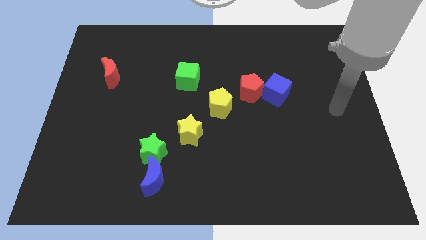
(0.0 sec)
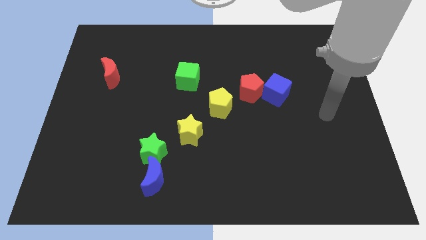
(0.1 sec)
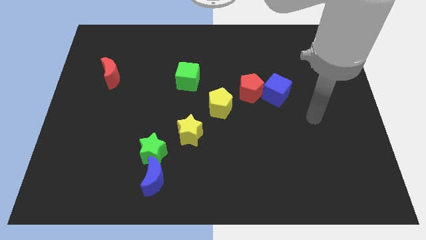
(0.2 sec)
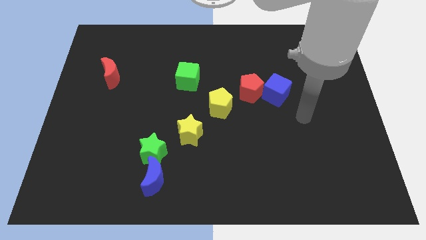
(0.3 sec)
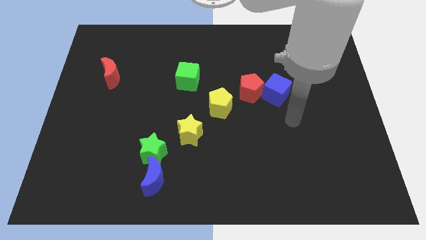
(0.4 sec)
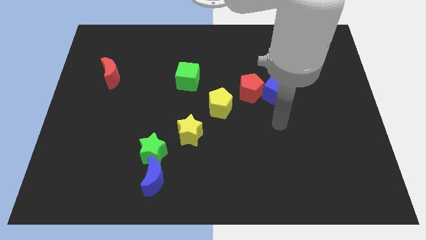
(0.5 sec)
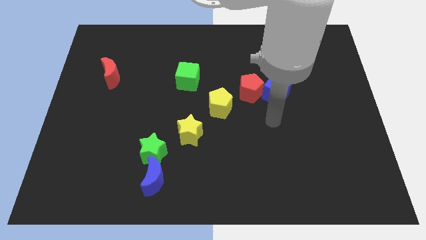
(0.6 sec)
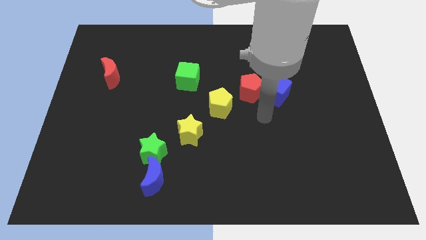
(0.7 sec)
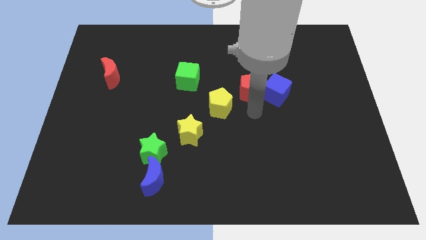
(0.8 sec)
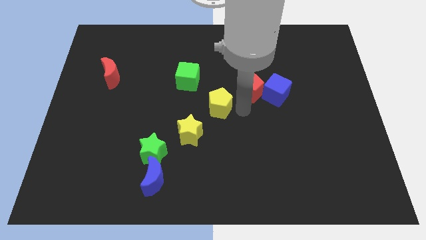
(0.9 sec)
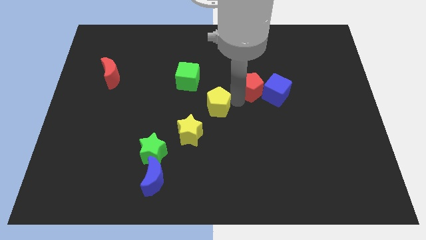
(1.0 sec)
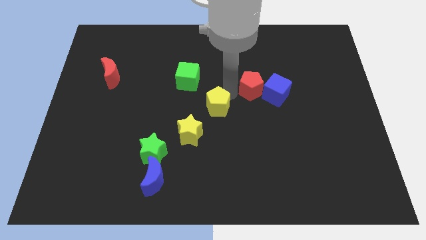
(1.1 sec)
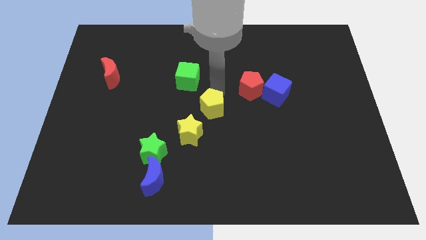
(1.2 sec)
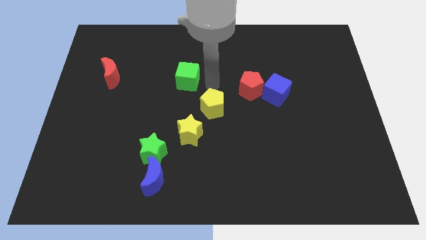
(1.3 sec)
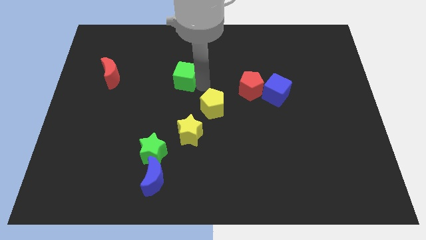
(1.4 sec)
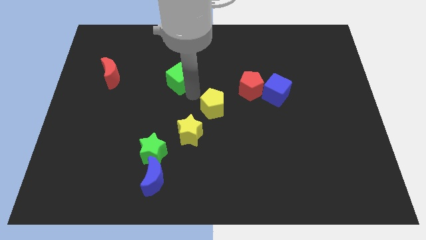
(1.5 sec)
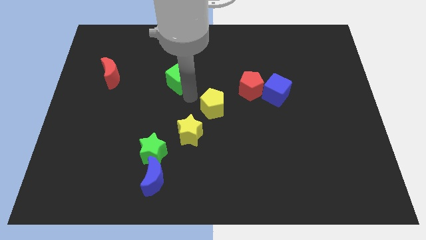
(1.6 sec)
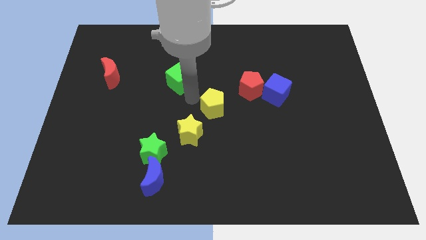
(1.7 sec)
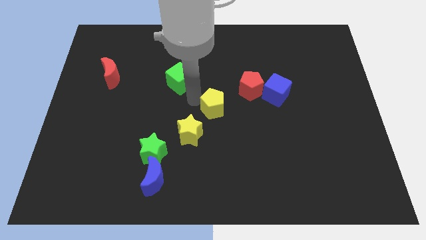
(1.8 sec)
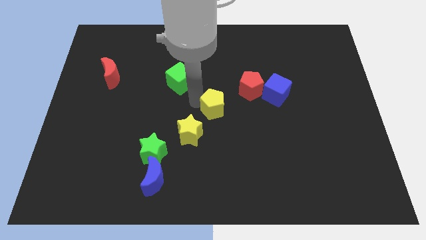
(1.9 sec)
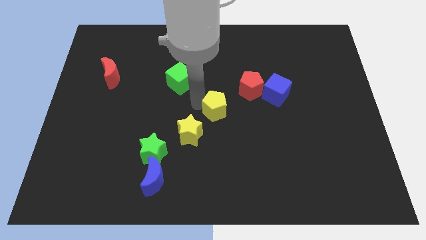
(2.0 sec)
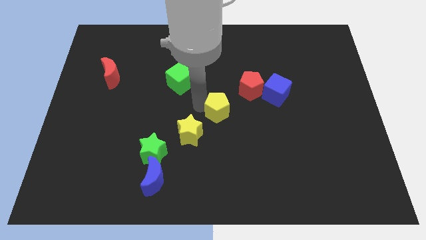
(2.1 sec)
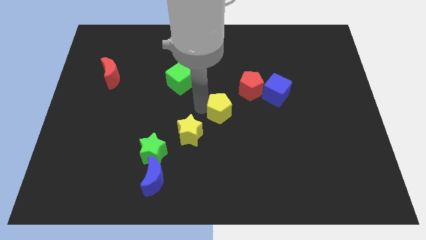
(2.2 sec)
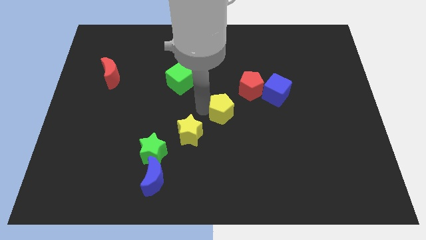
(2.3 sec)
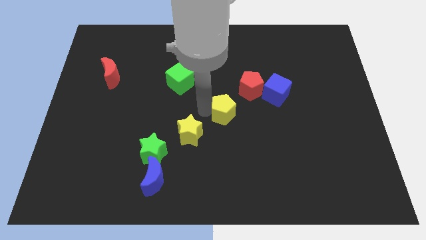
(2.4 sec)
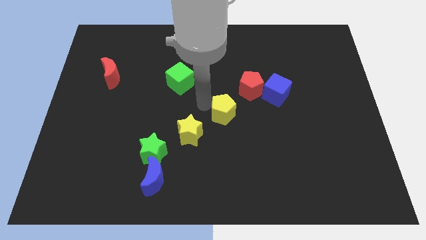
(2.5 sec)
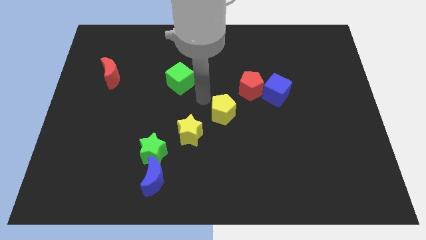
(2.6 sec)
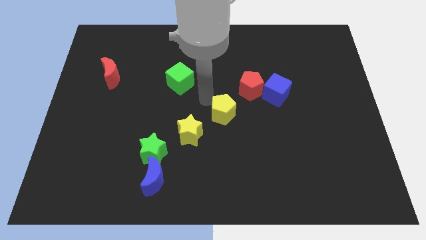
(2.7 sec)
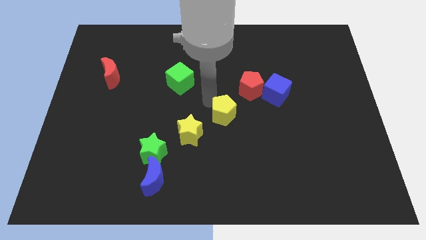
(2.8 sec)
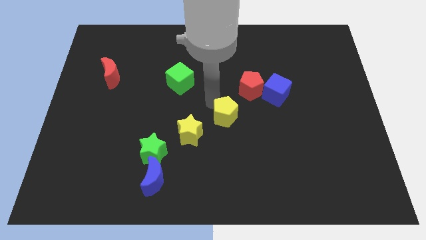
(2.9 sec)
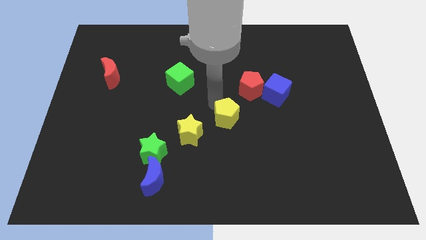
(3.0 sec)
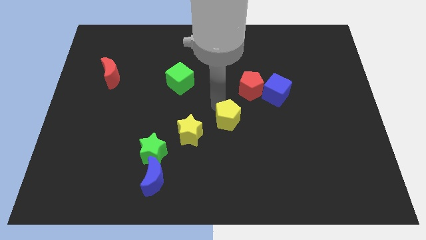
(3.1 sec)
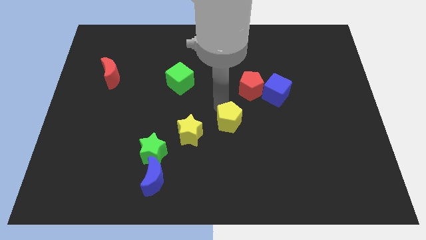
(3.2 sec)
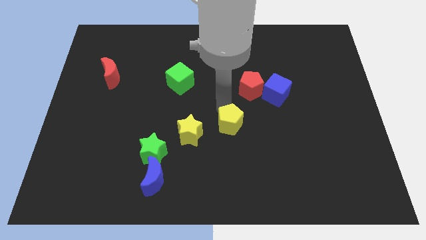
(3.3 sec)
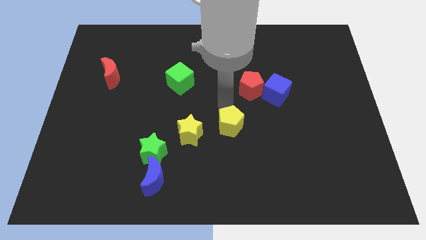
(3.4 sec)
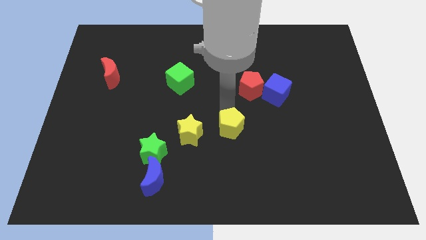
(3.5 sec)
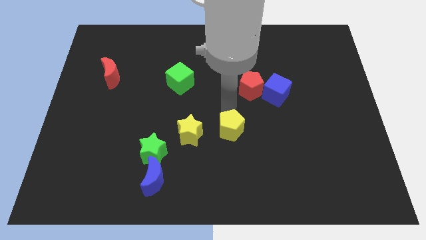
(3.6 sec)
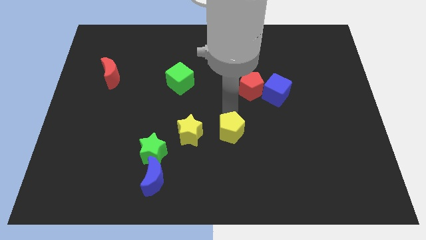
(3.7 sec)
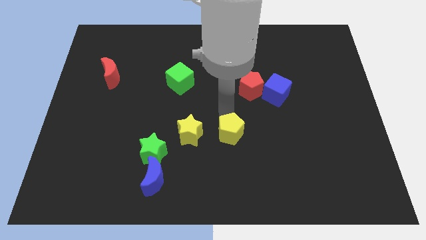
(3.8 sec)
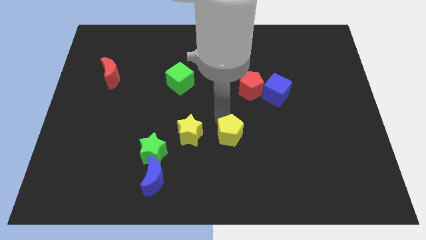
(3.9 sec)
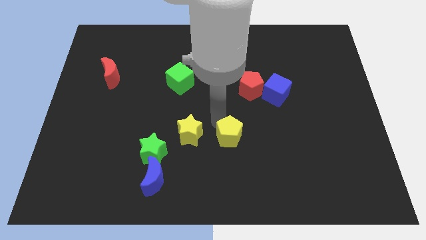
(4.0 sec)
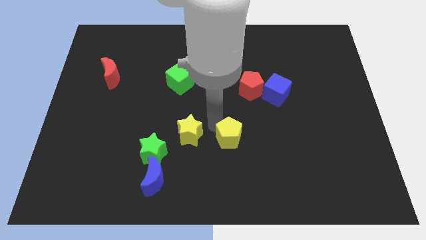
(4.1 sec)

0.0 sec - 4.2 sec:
push the yellow pentagon downwards and to the right diagonally slightly

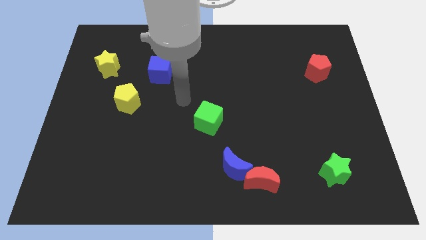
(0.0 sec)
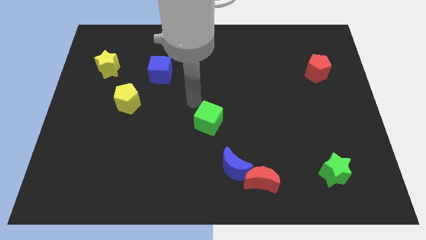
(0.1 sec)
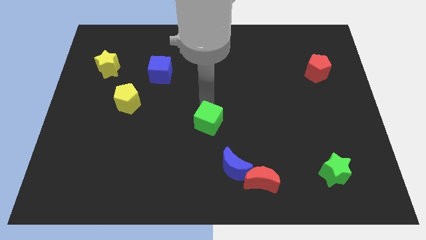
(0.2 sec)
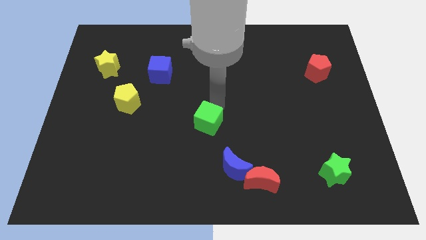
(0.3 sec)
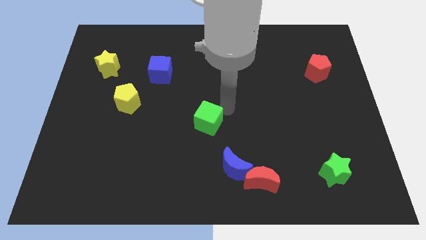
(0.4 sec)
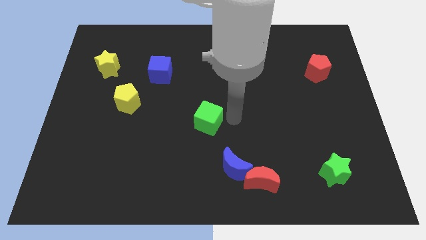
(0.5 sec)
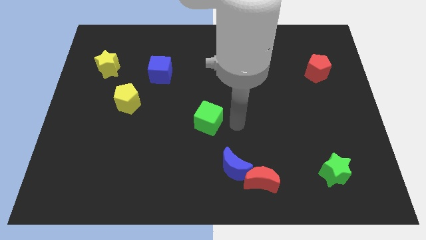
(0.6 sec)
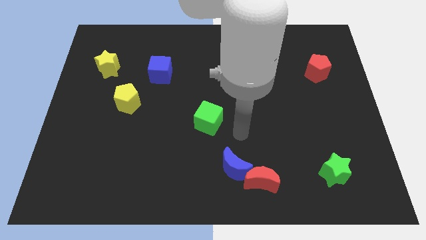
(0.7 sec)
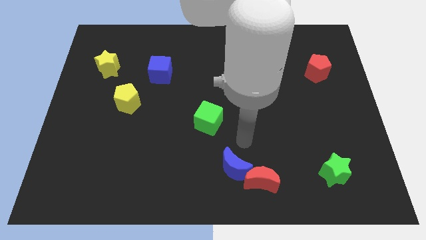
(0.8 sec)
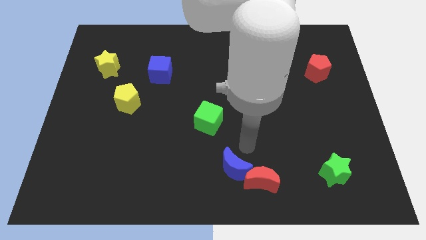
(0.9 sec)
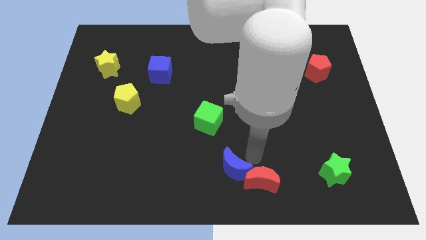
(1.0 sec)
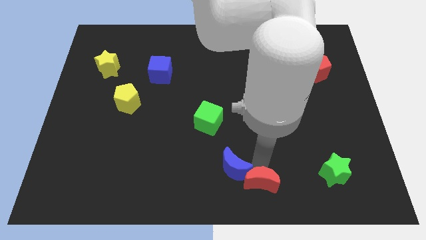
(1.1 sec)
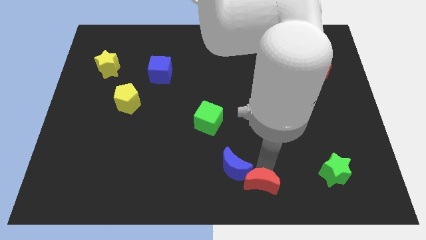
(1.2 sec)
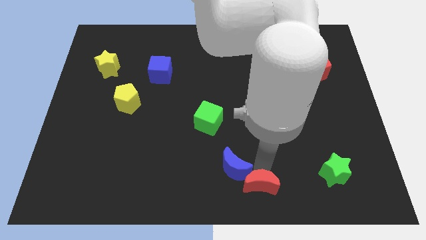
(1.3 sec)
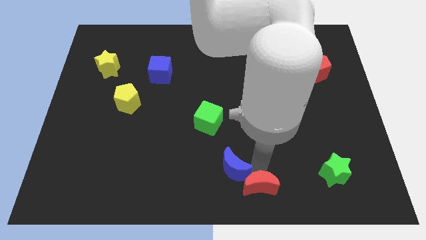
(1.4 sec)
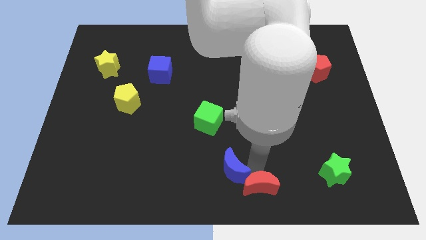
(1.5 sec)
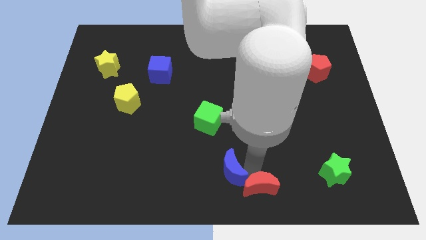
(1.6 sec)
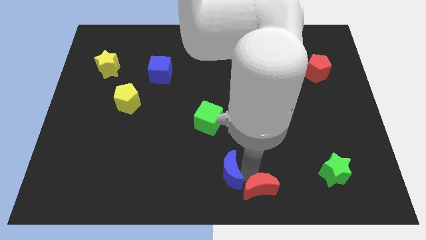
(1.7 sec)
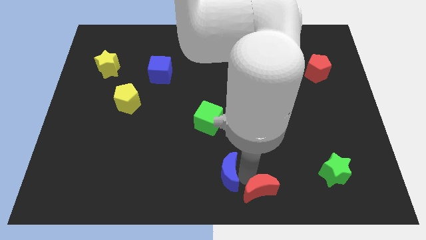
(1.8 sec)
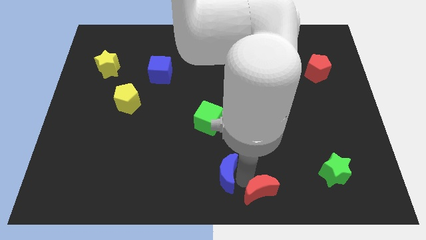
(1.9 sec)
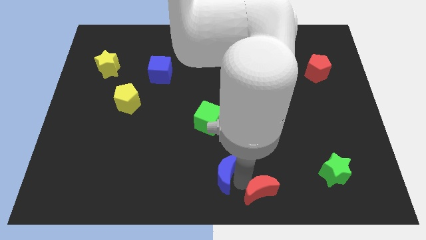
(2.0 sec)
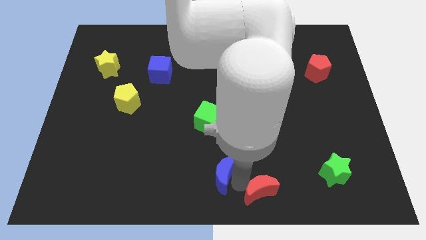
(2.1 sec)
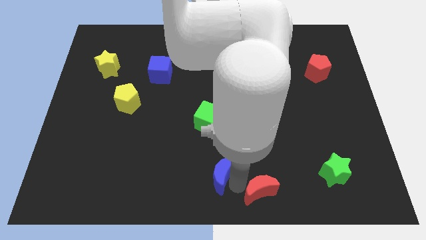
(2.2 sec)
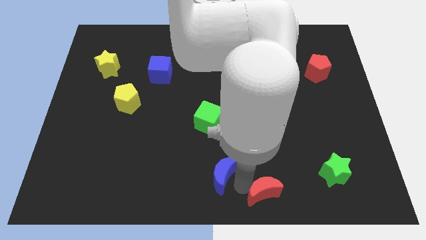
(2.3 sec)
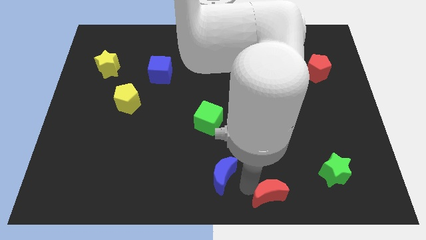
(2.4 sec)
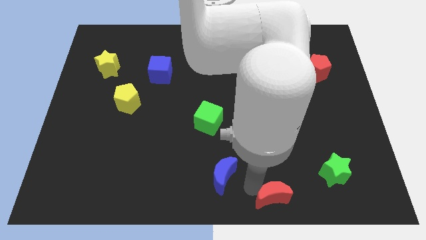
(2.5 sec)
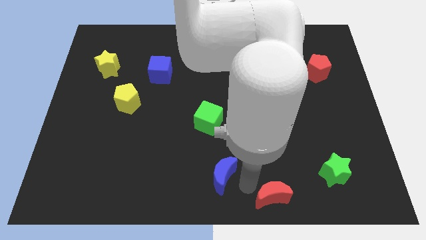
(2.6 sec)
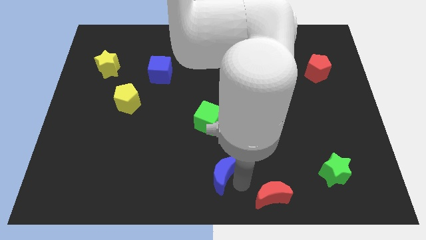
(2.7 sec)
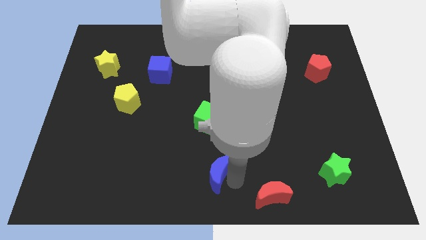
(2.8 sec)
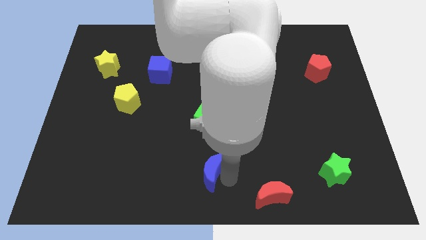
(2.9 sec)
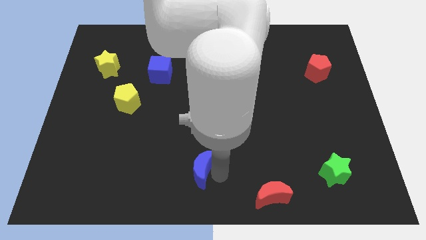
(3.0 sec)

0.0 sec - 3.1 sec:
push the blue moon to the left a little bit

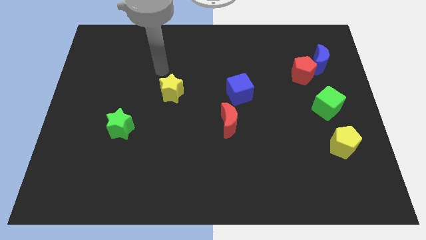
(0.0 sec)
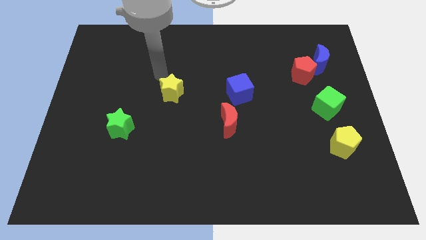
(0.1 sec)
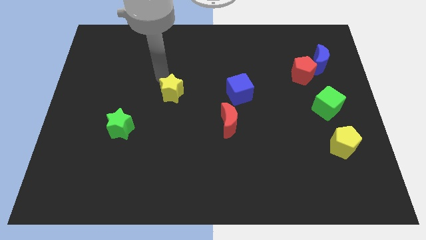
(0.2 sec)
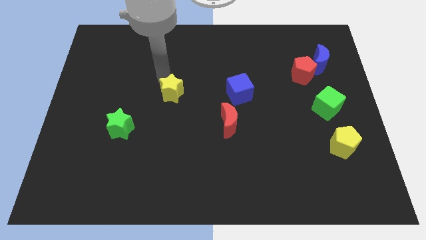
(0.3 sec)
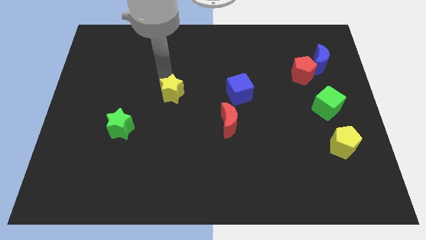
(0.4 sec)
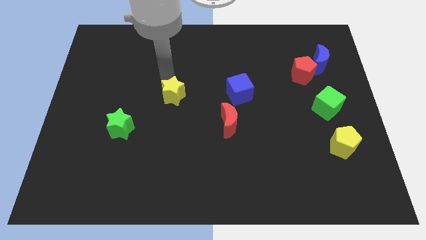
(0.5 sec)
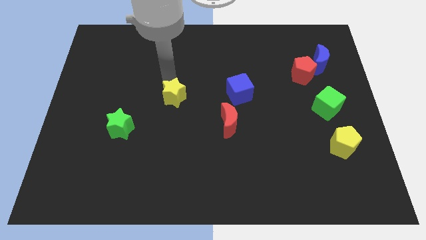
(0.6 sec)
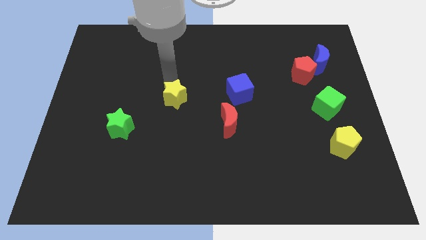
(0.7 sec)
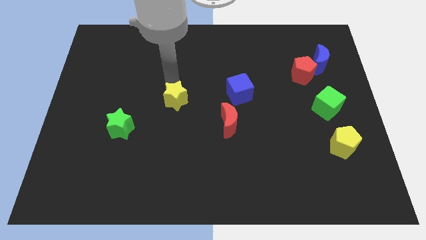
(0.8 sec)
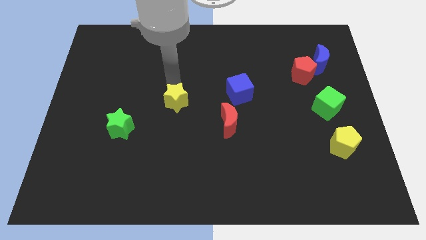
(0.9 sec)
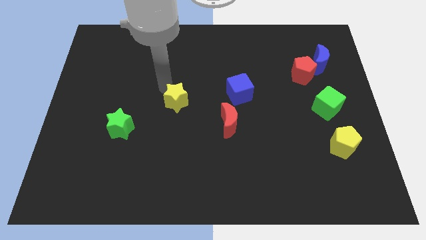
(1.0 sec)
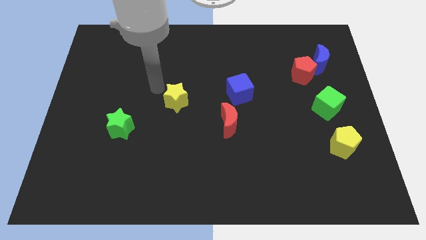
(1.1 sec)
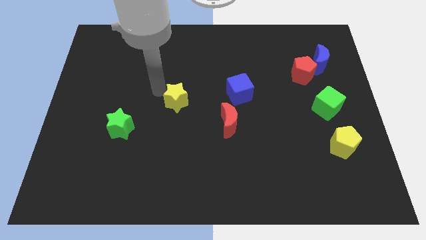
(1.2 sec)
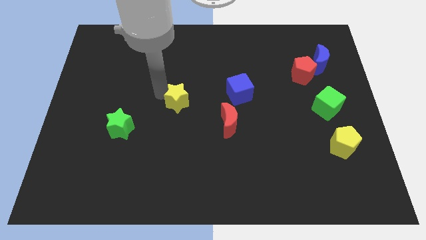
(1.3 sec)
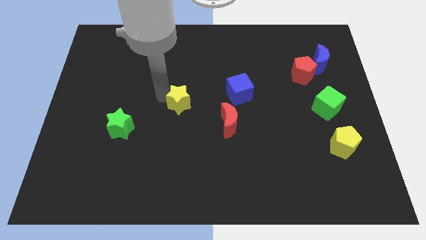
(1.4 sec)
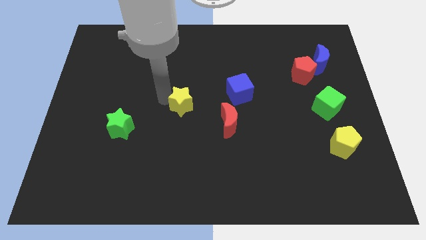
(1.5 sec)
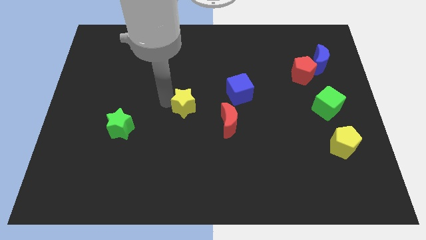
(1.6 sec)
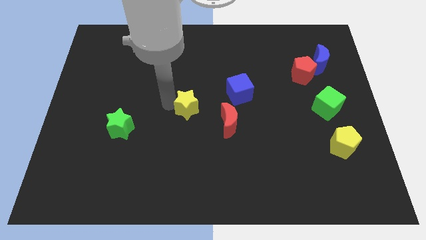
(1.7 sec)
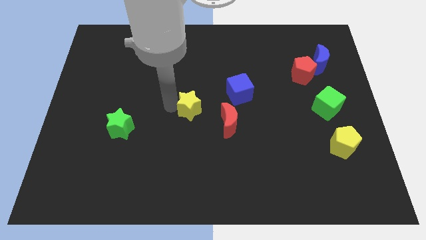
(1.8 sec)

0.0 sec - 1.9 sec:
slide the yellow star downwards and then to the right a bit
